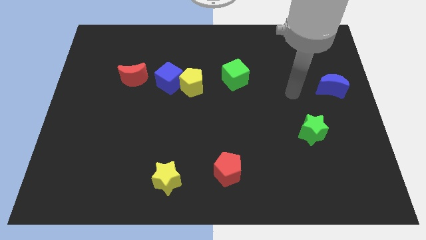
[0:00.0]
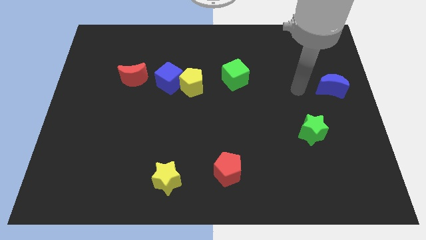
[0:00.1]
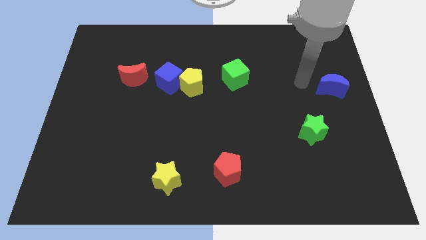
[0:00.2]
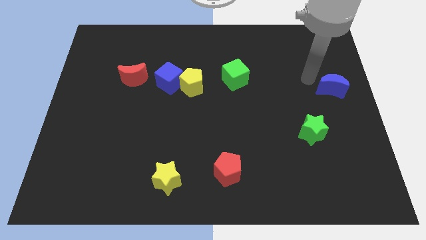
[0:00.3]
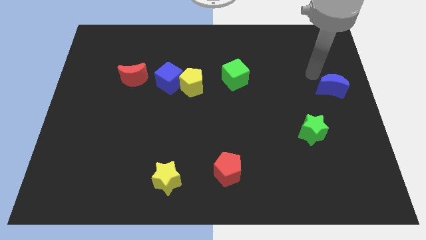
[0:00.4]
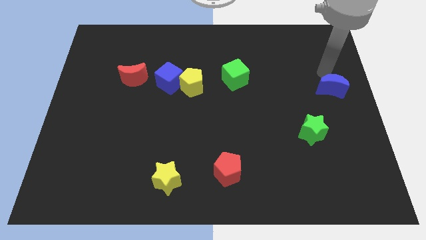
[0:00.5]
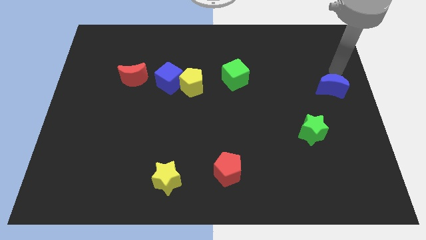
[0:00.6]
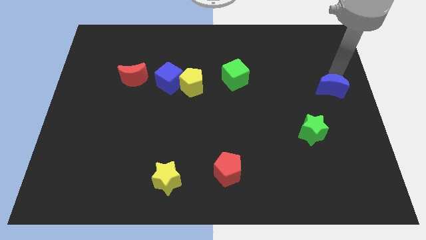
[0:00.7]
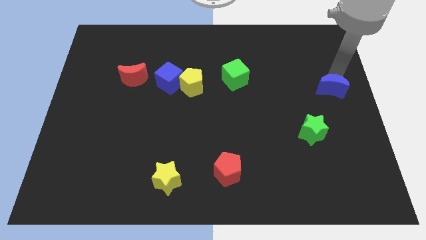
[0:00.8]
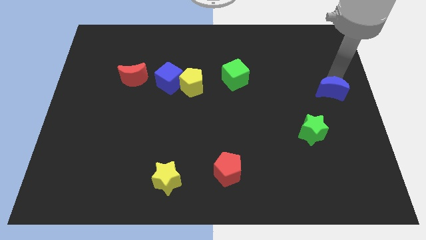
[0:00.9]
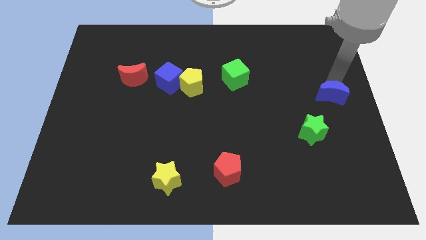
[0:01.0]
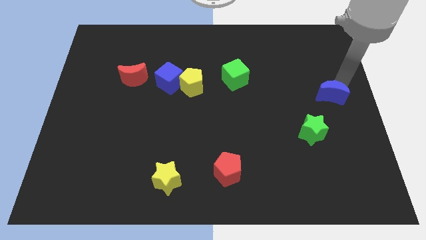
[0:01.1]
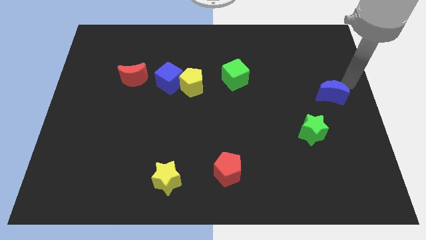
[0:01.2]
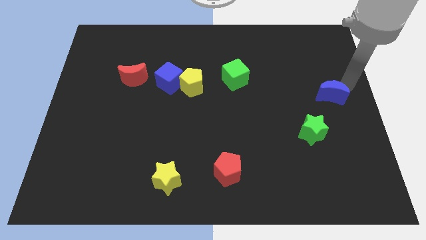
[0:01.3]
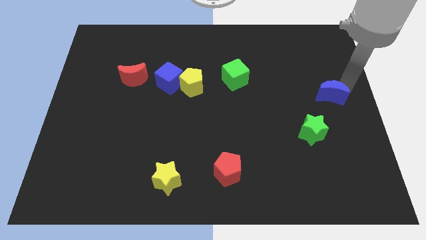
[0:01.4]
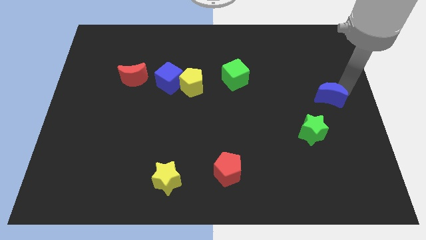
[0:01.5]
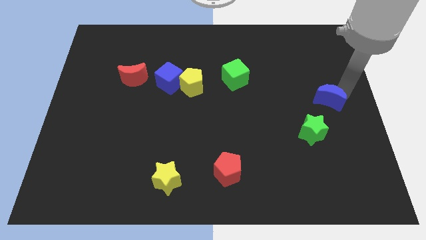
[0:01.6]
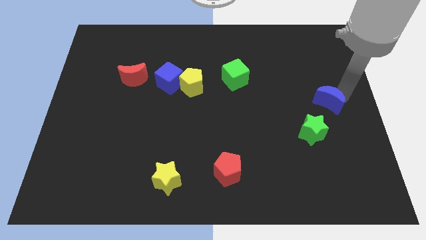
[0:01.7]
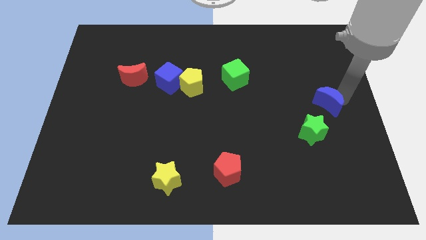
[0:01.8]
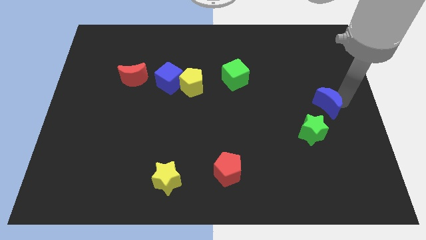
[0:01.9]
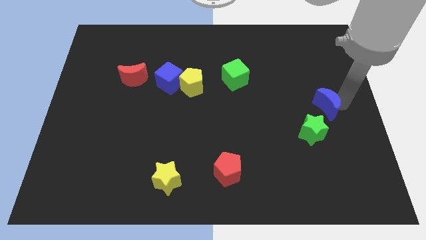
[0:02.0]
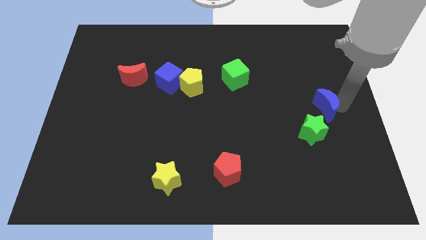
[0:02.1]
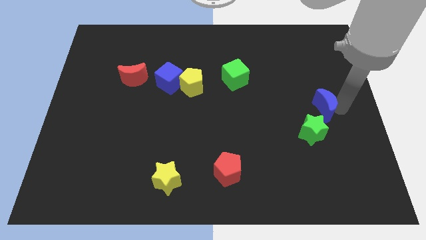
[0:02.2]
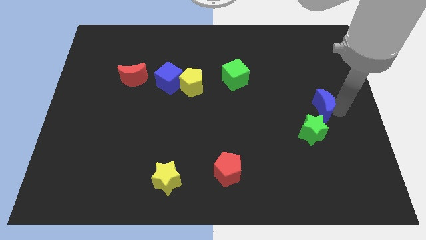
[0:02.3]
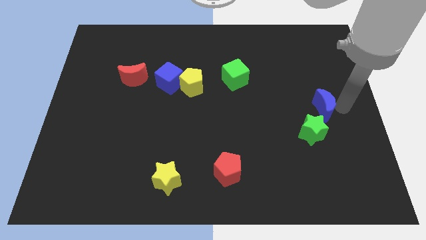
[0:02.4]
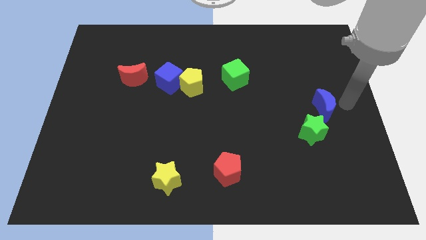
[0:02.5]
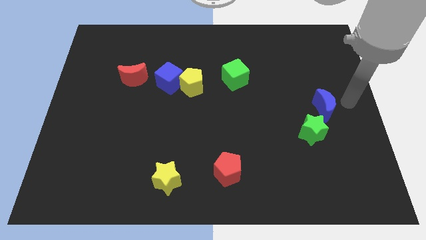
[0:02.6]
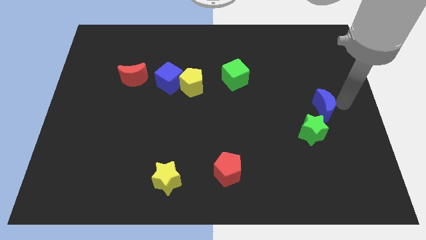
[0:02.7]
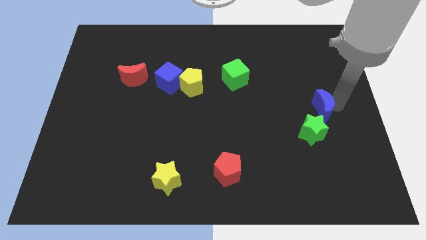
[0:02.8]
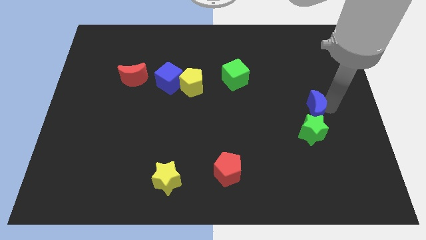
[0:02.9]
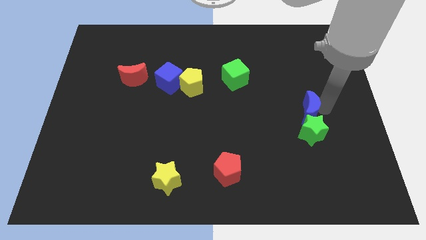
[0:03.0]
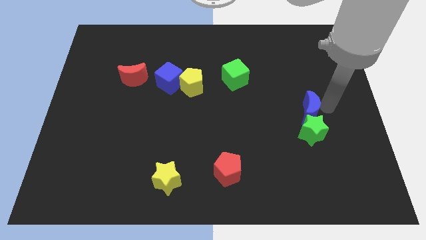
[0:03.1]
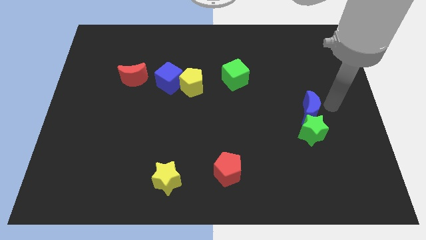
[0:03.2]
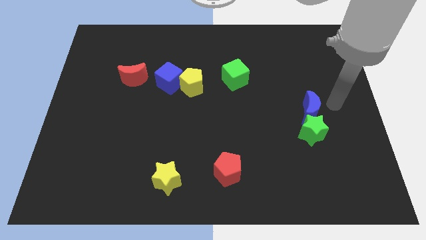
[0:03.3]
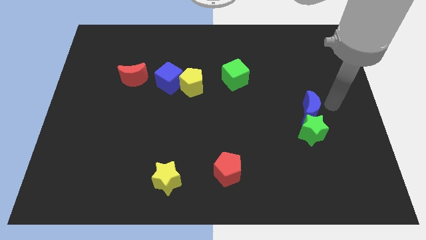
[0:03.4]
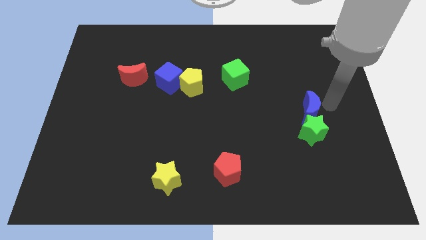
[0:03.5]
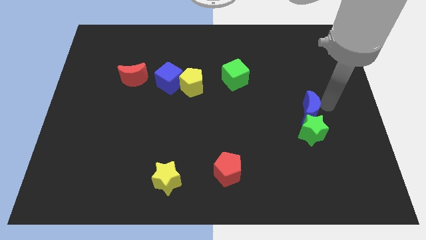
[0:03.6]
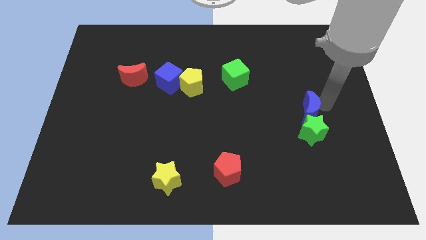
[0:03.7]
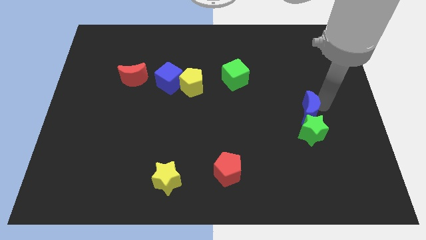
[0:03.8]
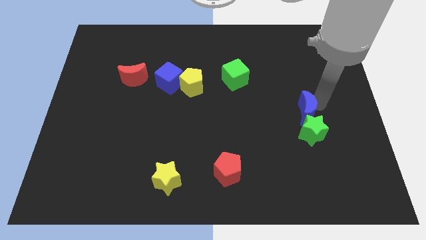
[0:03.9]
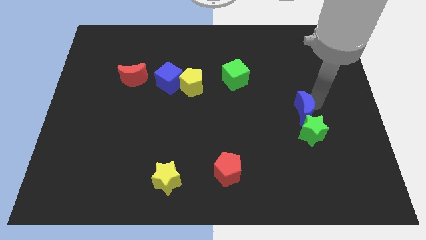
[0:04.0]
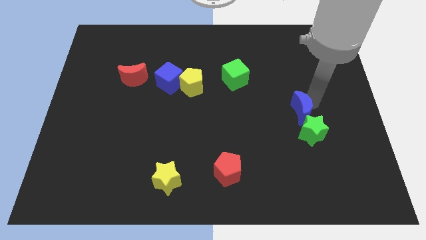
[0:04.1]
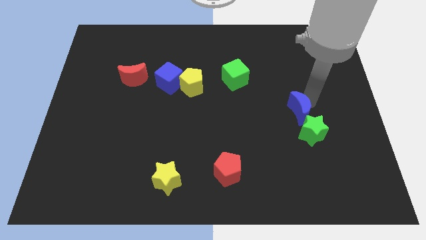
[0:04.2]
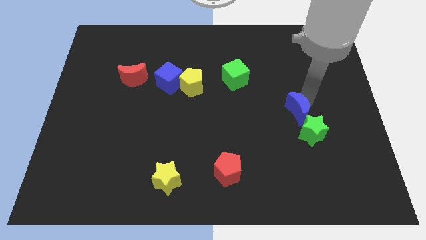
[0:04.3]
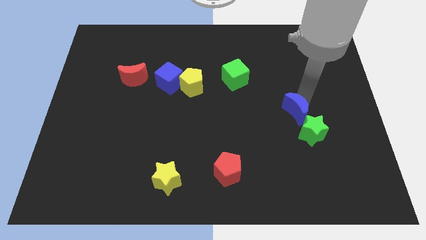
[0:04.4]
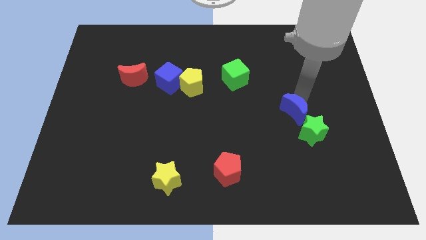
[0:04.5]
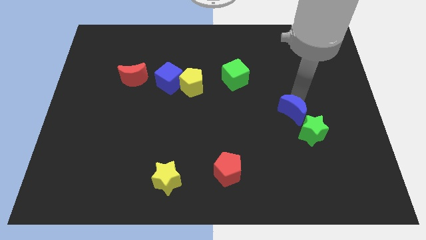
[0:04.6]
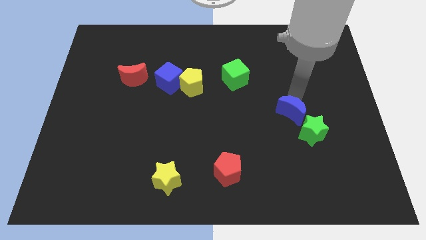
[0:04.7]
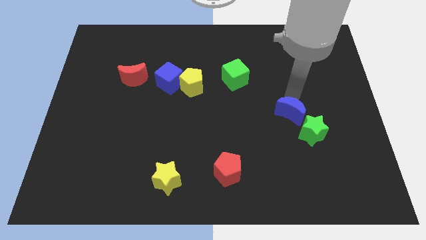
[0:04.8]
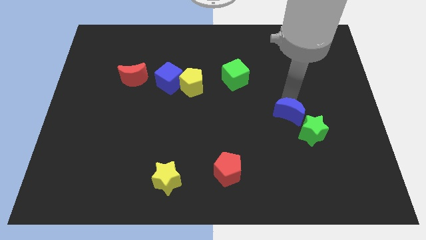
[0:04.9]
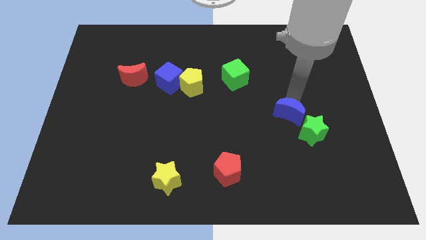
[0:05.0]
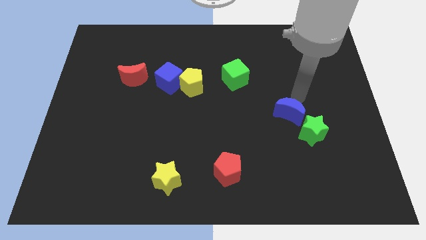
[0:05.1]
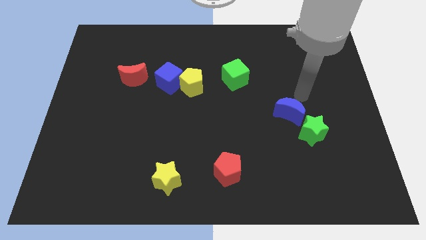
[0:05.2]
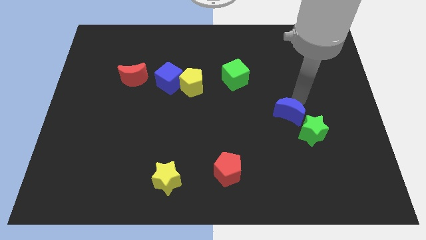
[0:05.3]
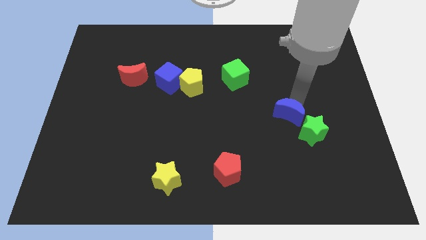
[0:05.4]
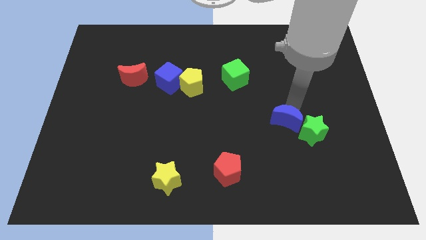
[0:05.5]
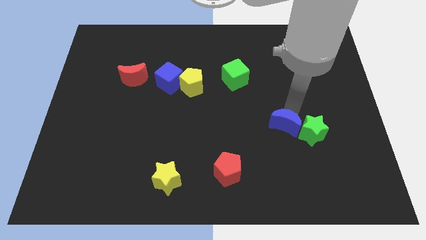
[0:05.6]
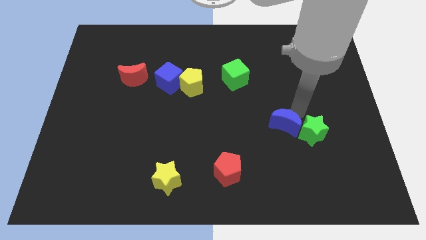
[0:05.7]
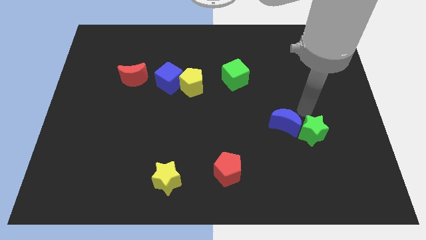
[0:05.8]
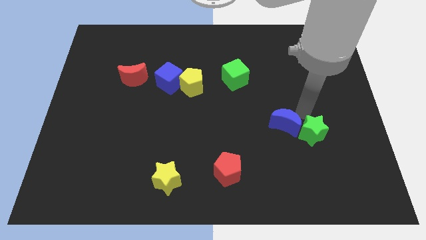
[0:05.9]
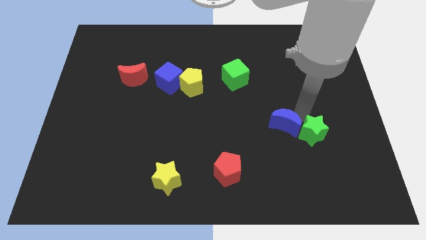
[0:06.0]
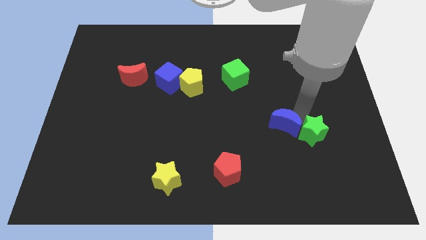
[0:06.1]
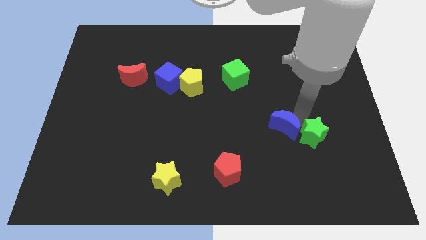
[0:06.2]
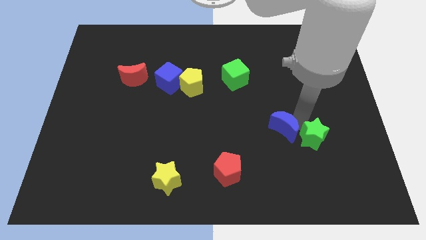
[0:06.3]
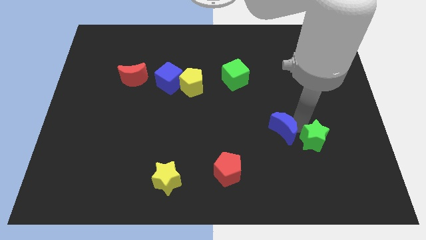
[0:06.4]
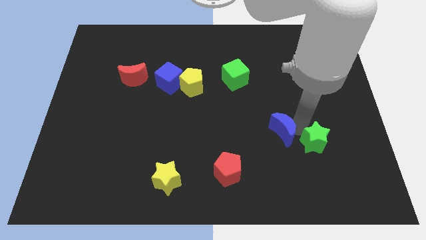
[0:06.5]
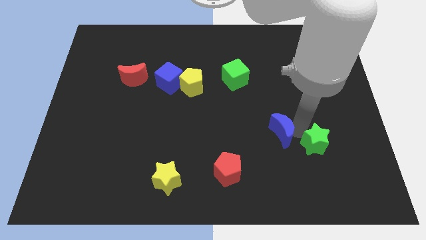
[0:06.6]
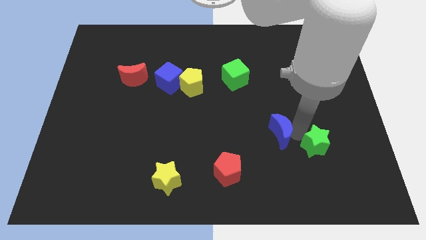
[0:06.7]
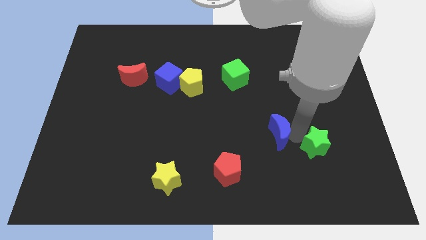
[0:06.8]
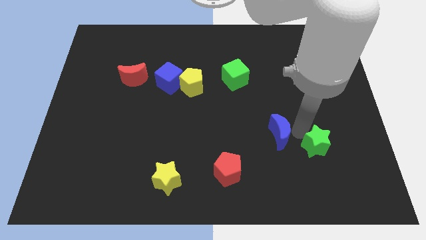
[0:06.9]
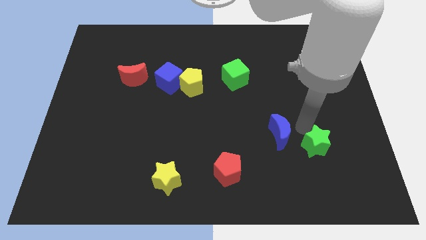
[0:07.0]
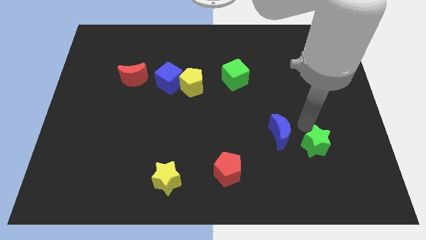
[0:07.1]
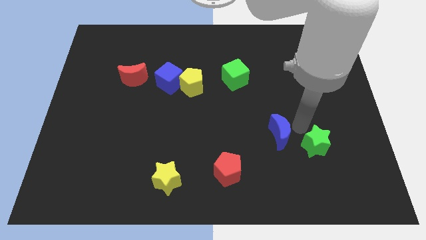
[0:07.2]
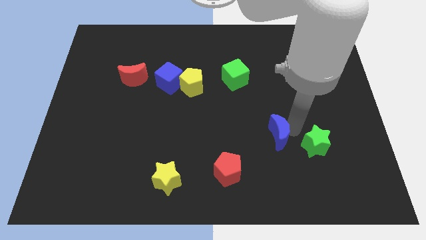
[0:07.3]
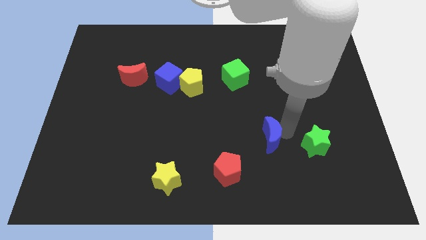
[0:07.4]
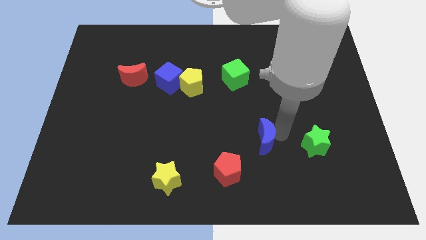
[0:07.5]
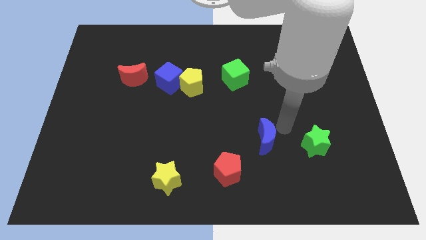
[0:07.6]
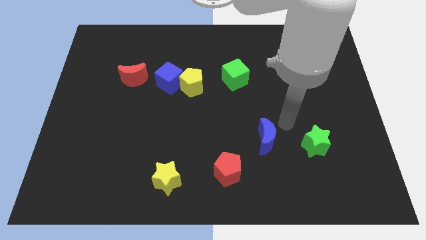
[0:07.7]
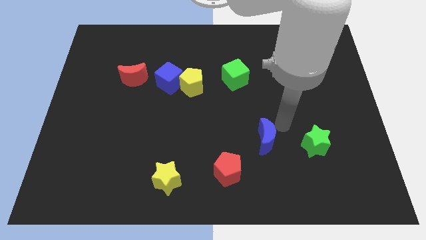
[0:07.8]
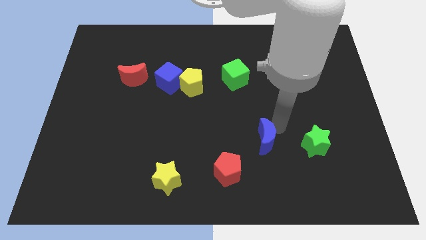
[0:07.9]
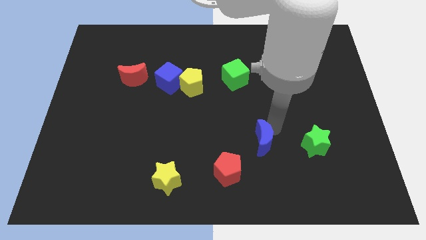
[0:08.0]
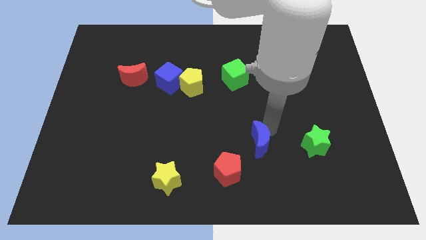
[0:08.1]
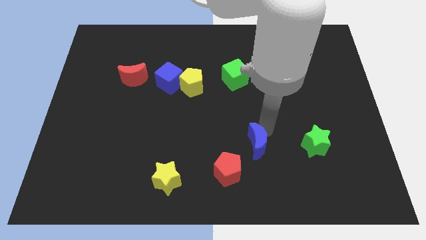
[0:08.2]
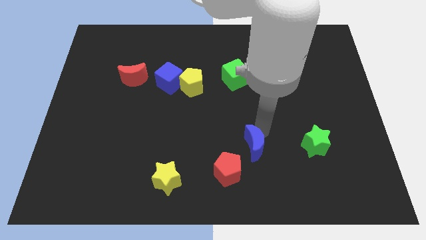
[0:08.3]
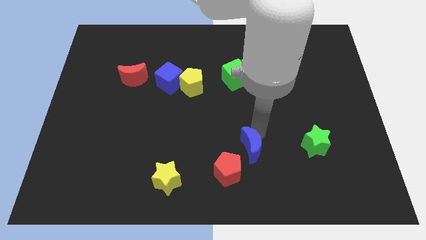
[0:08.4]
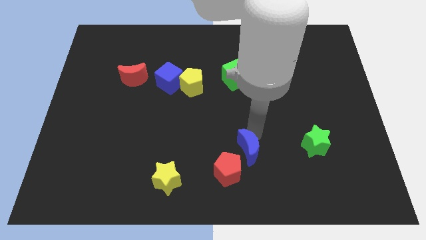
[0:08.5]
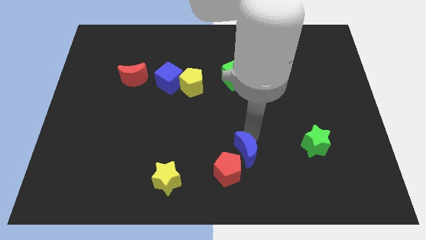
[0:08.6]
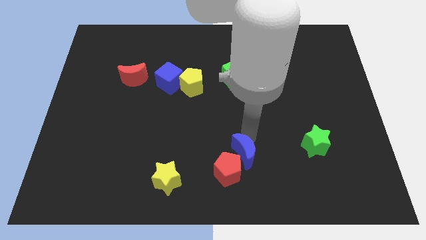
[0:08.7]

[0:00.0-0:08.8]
push the blue moon close to the red pentagon
